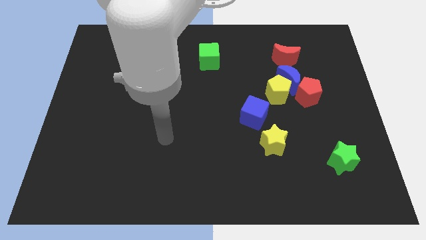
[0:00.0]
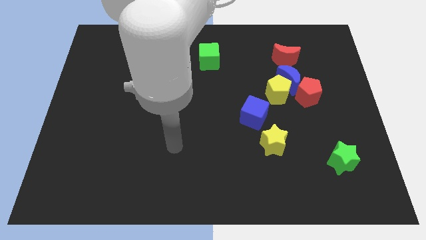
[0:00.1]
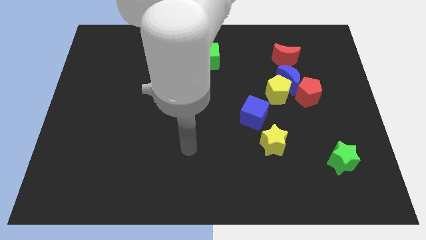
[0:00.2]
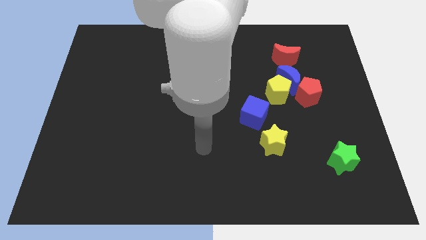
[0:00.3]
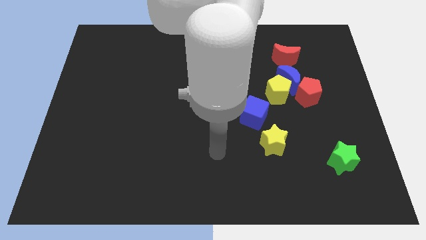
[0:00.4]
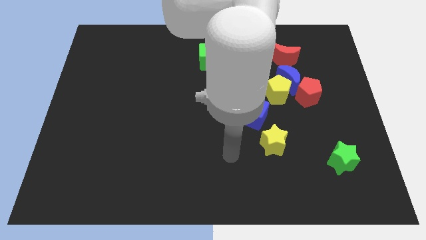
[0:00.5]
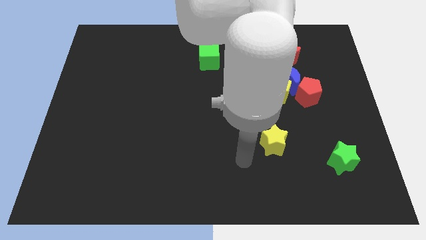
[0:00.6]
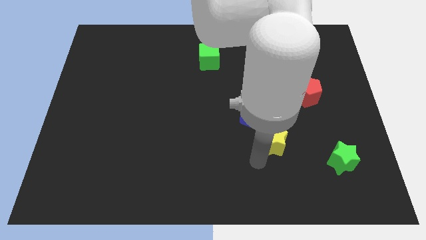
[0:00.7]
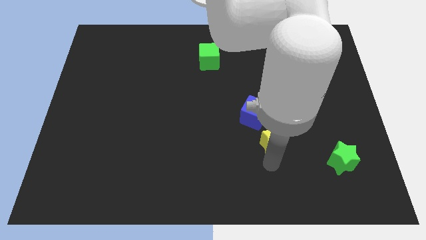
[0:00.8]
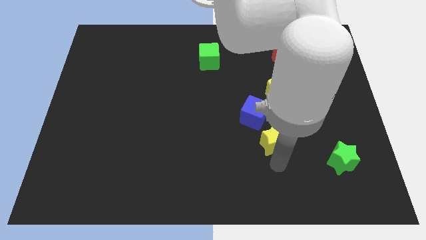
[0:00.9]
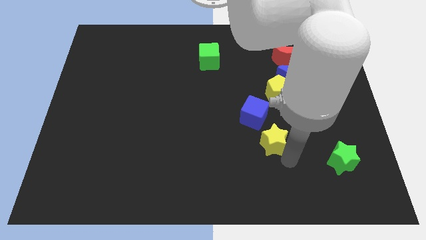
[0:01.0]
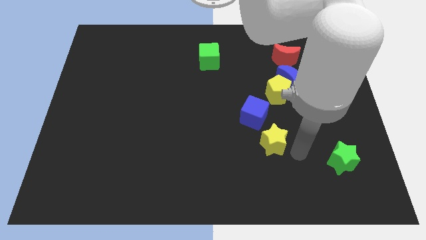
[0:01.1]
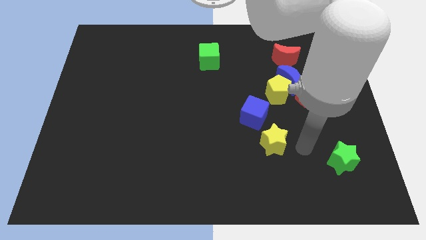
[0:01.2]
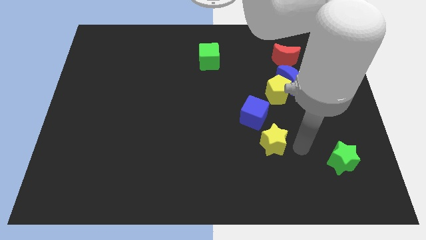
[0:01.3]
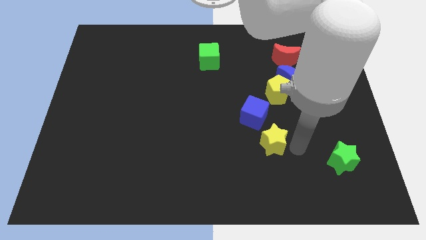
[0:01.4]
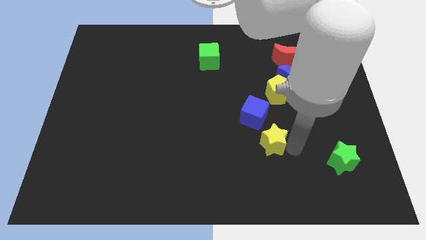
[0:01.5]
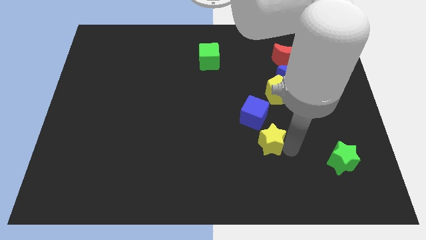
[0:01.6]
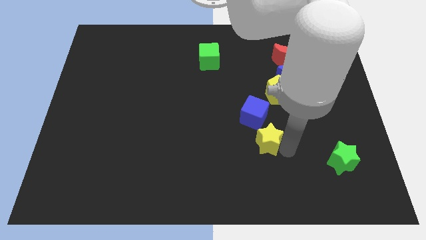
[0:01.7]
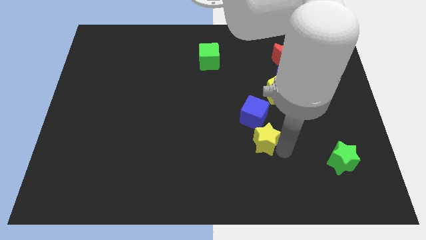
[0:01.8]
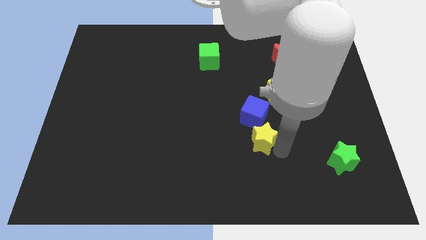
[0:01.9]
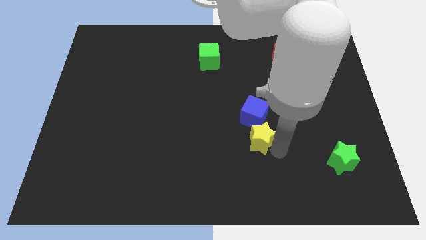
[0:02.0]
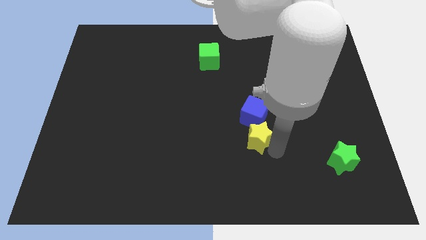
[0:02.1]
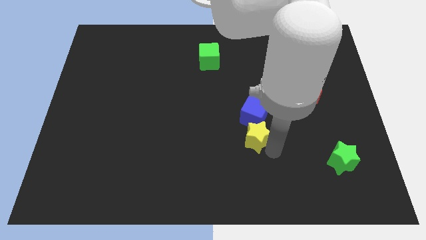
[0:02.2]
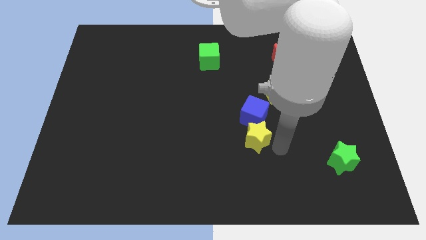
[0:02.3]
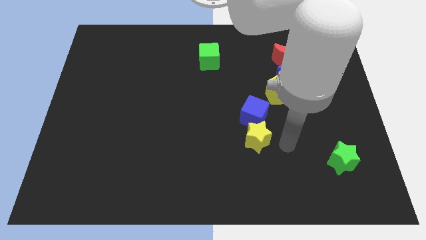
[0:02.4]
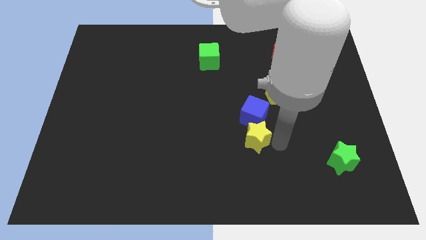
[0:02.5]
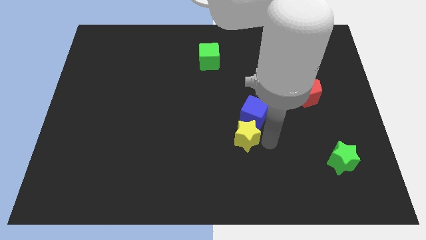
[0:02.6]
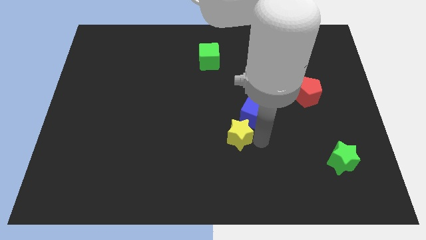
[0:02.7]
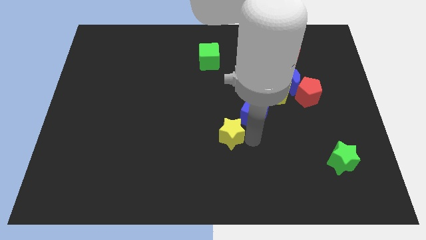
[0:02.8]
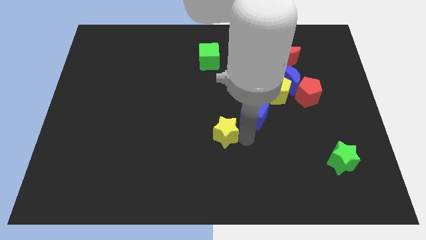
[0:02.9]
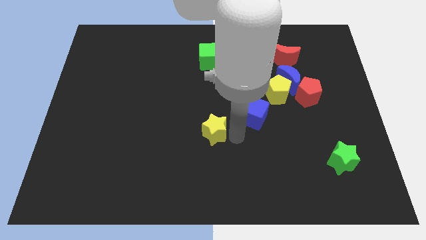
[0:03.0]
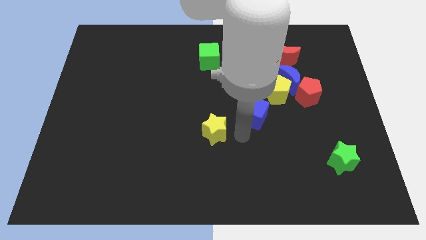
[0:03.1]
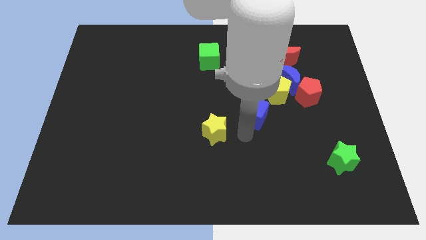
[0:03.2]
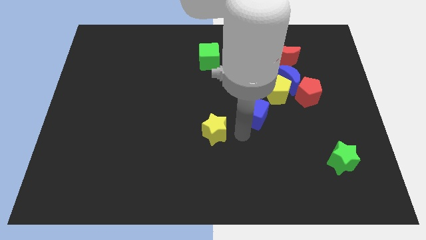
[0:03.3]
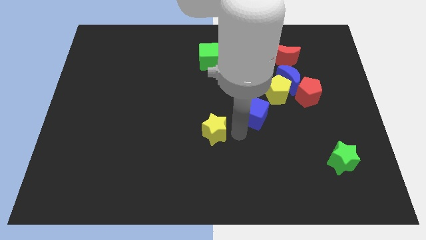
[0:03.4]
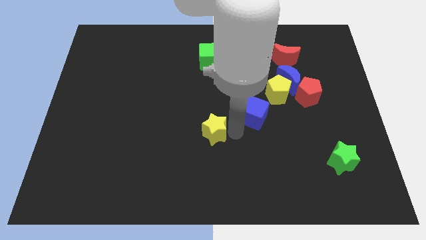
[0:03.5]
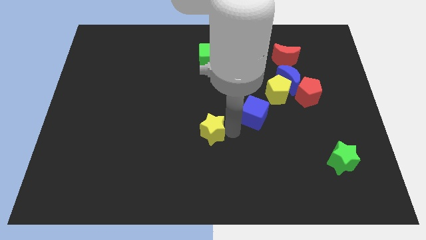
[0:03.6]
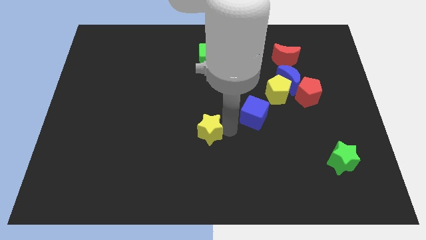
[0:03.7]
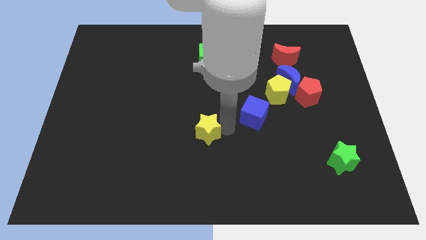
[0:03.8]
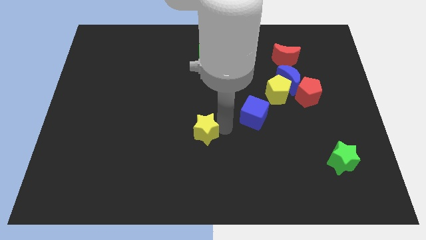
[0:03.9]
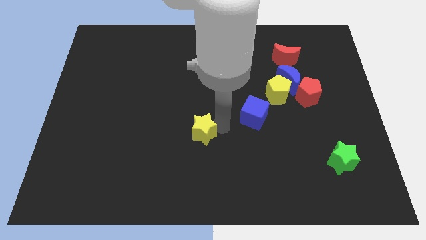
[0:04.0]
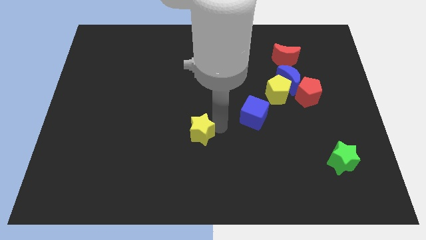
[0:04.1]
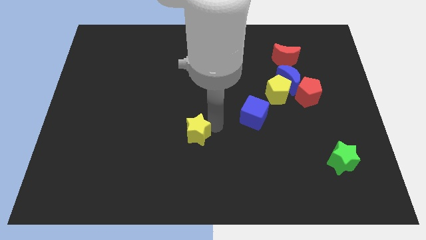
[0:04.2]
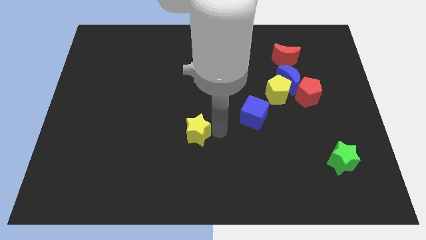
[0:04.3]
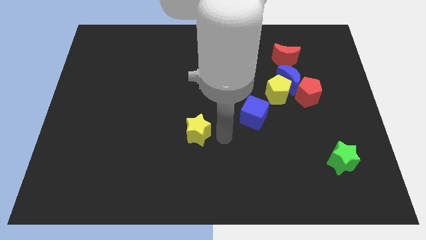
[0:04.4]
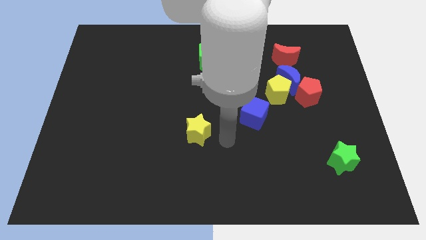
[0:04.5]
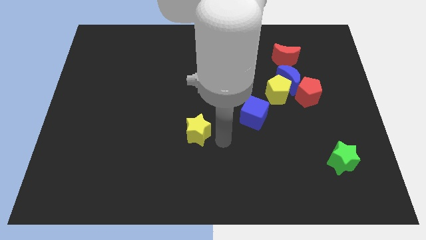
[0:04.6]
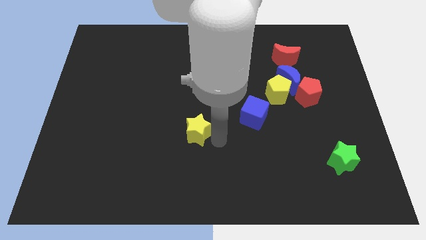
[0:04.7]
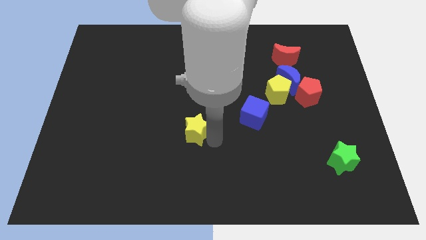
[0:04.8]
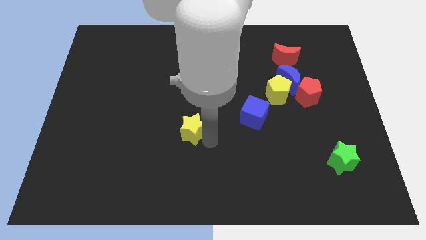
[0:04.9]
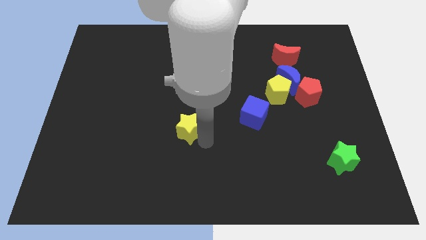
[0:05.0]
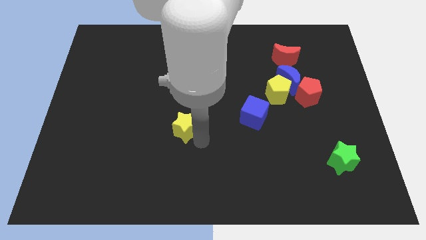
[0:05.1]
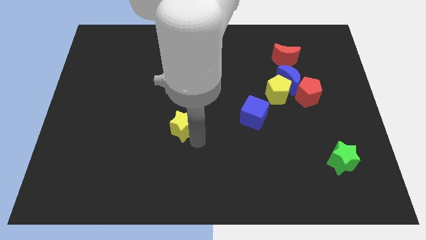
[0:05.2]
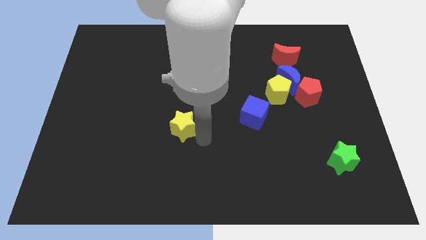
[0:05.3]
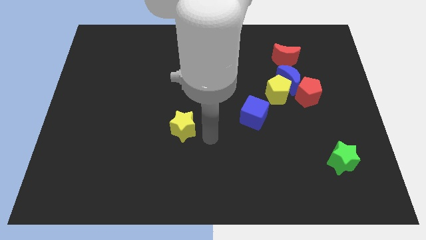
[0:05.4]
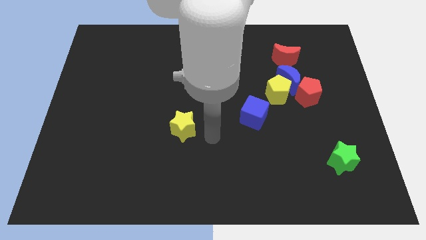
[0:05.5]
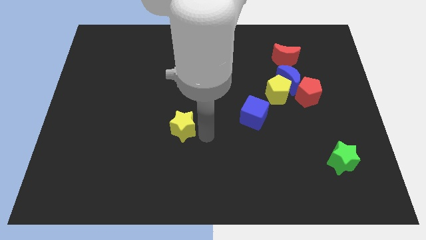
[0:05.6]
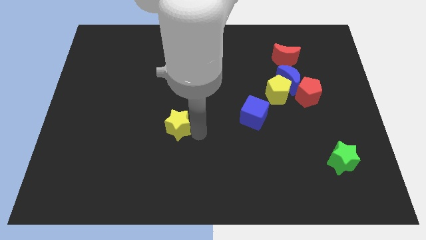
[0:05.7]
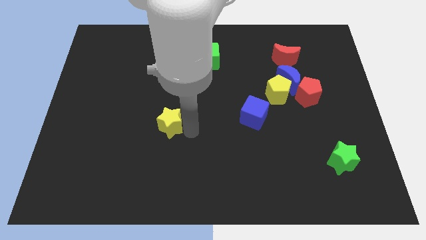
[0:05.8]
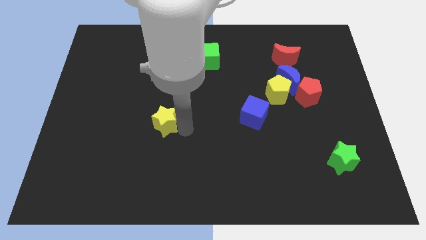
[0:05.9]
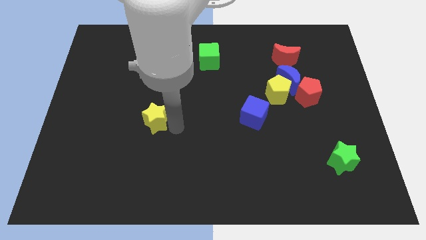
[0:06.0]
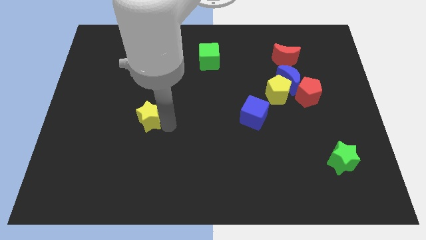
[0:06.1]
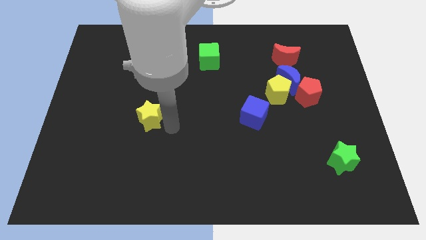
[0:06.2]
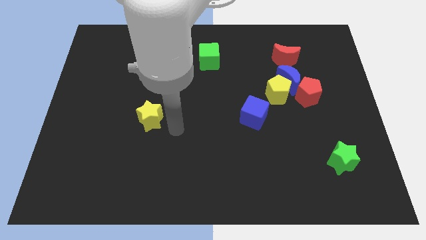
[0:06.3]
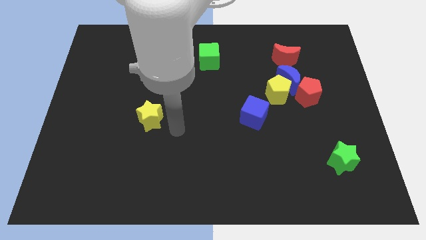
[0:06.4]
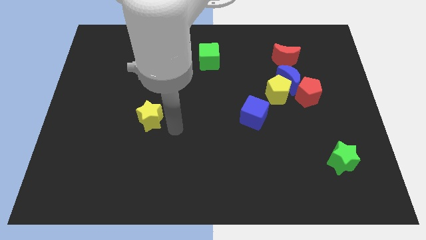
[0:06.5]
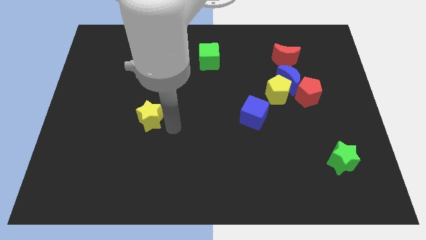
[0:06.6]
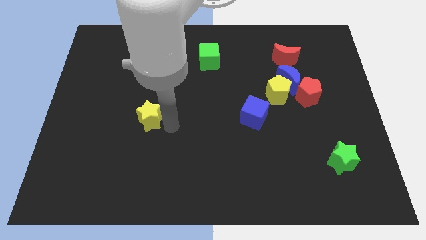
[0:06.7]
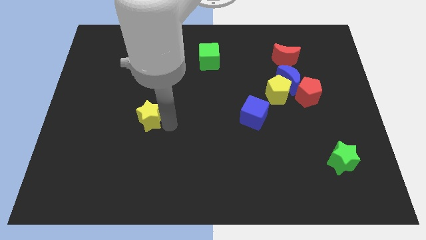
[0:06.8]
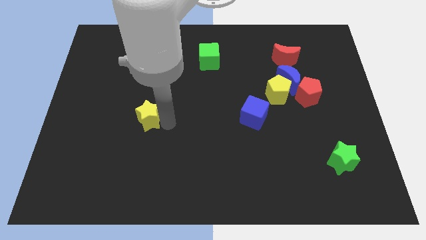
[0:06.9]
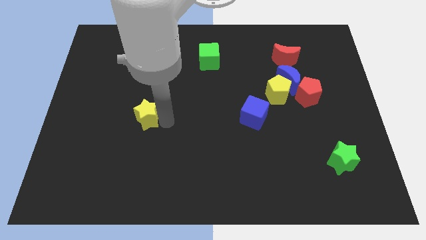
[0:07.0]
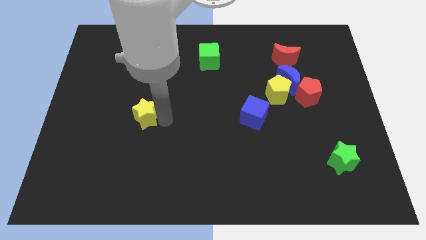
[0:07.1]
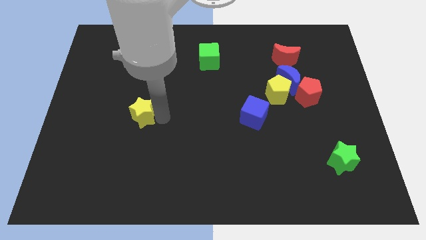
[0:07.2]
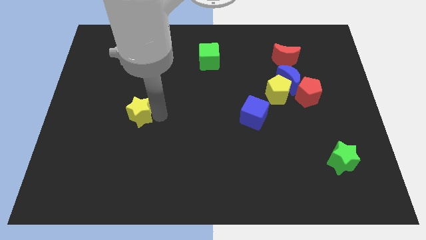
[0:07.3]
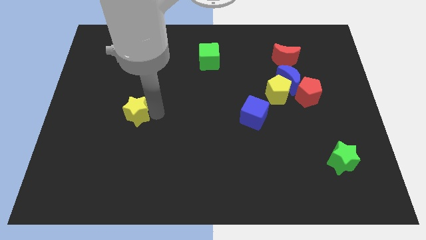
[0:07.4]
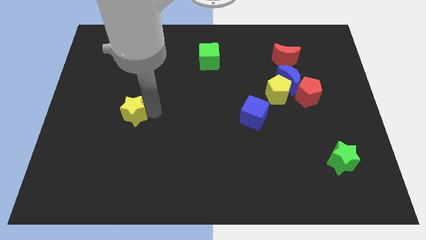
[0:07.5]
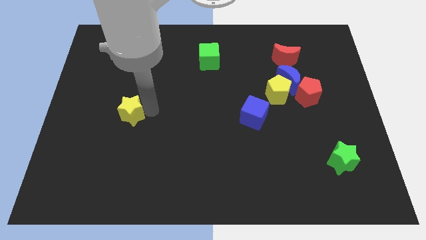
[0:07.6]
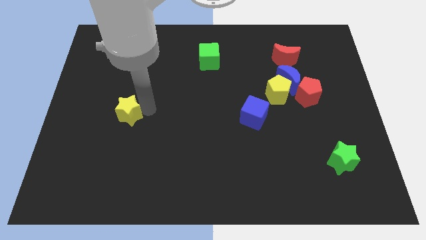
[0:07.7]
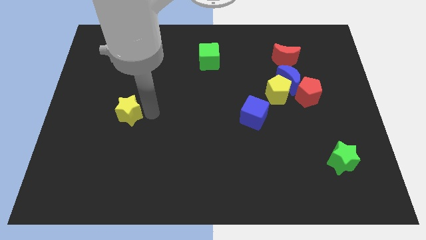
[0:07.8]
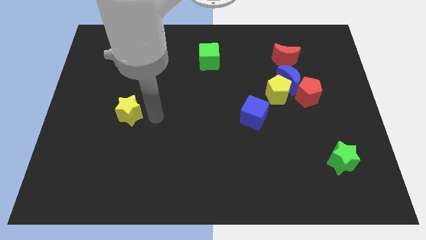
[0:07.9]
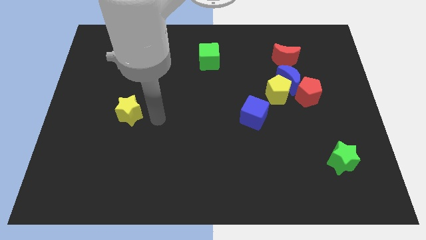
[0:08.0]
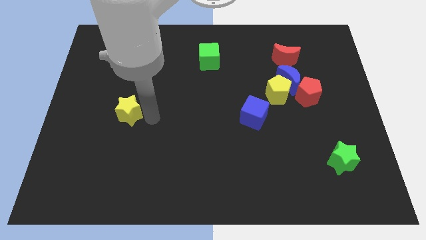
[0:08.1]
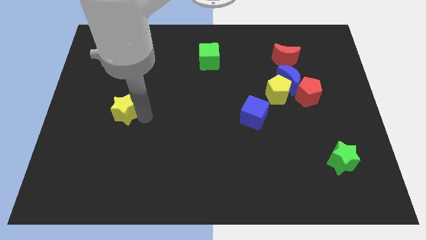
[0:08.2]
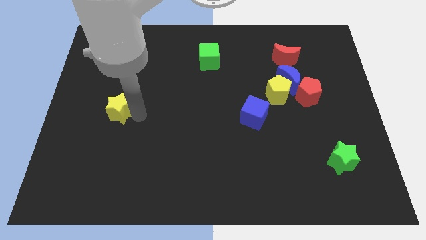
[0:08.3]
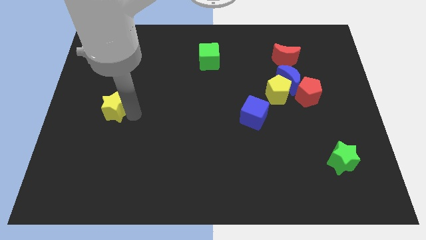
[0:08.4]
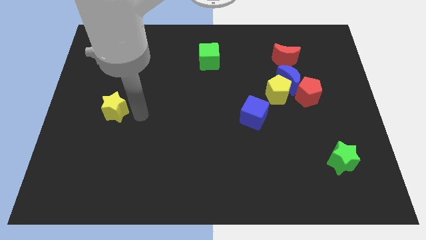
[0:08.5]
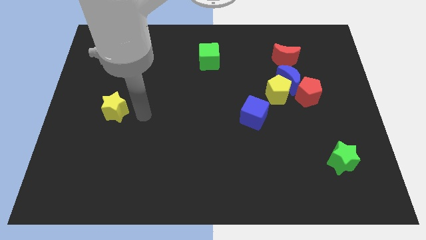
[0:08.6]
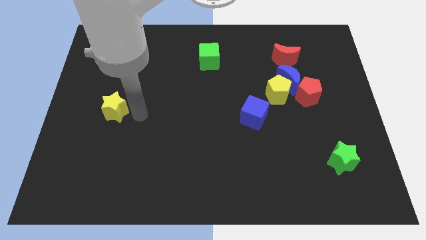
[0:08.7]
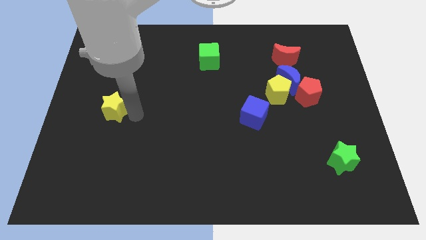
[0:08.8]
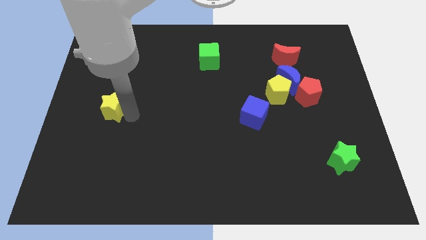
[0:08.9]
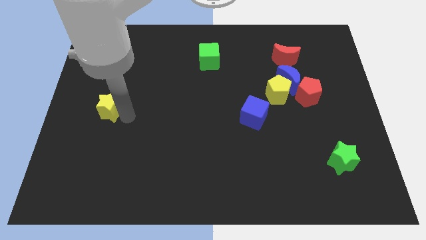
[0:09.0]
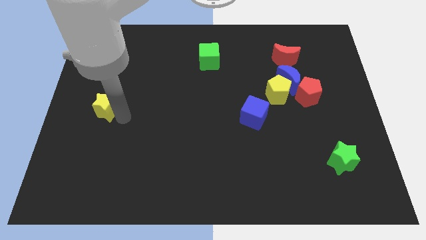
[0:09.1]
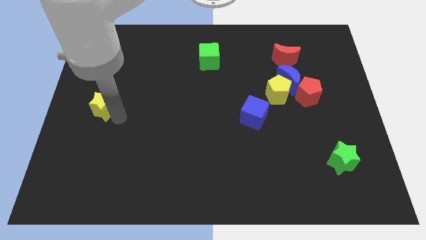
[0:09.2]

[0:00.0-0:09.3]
move the yellow star to the left side
